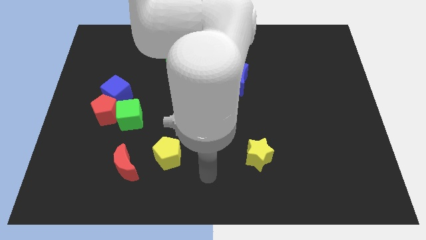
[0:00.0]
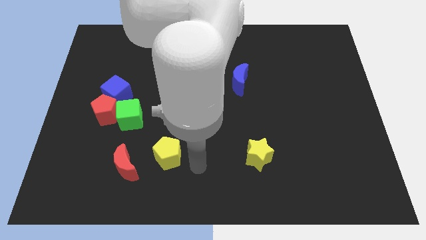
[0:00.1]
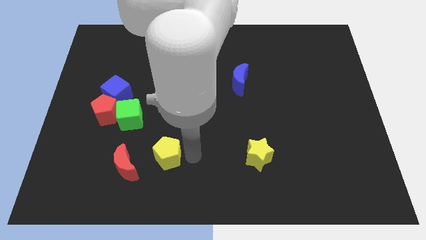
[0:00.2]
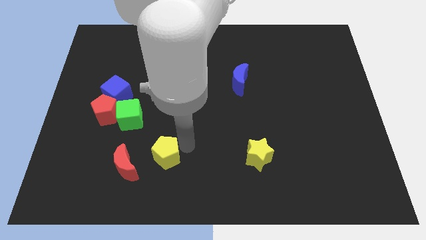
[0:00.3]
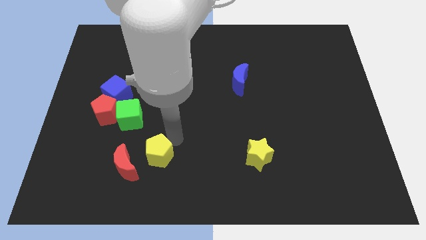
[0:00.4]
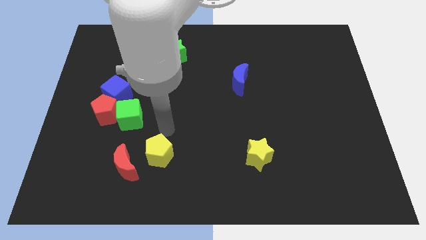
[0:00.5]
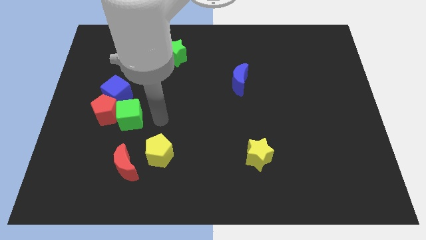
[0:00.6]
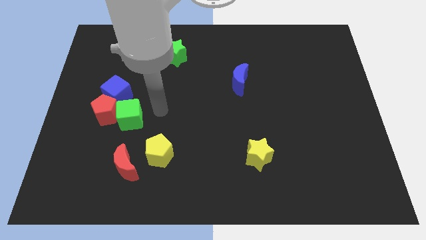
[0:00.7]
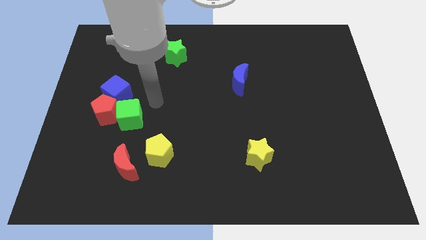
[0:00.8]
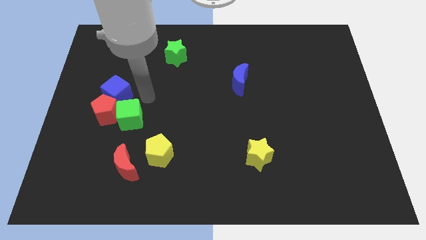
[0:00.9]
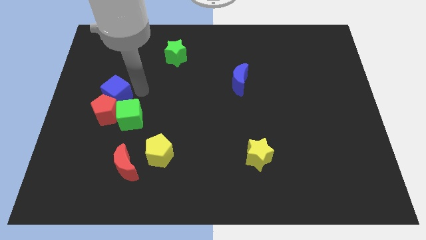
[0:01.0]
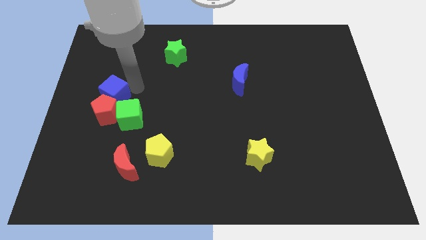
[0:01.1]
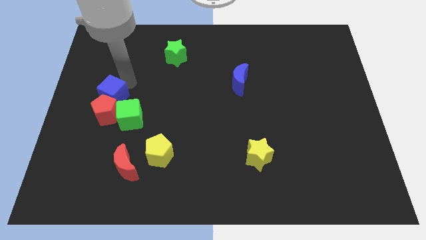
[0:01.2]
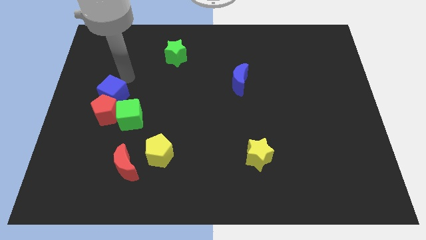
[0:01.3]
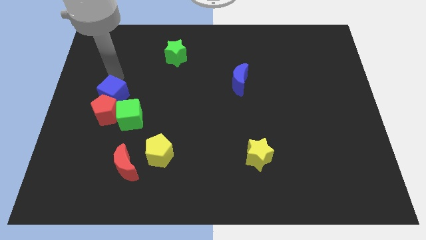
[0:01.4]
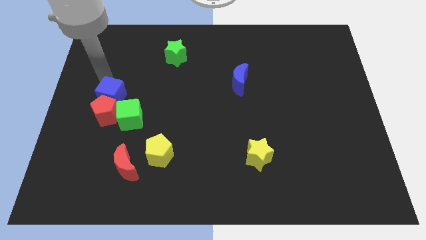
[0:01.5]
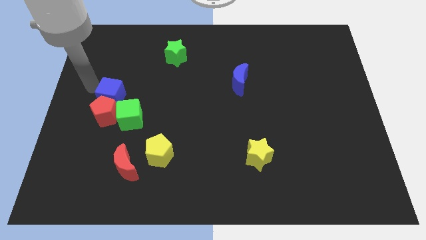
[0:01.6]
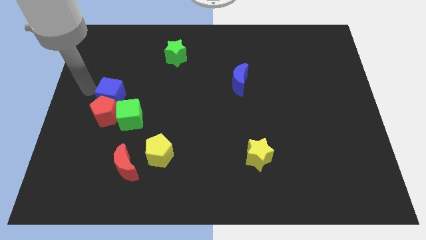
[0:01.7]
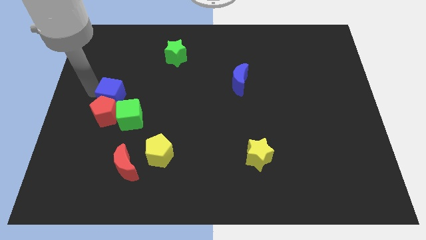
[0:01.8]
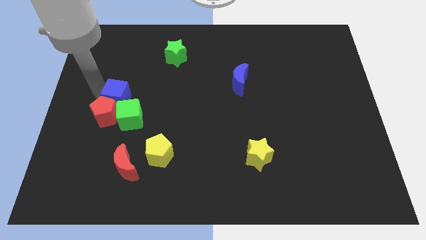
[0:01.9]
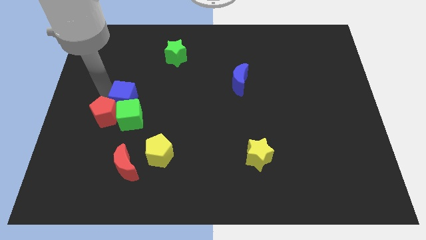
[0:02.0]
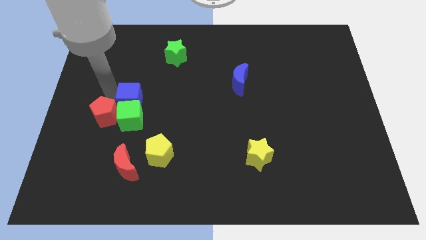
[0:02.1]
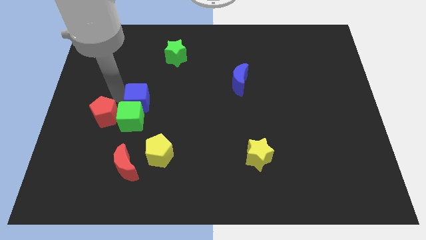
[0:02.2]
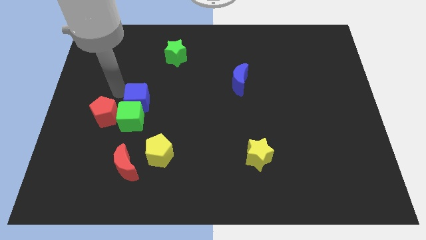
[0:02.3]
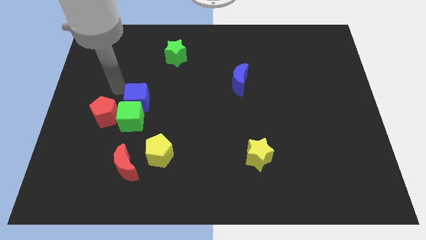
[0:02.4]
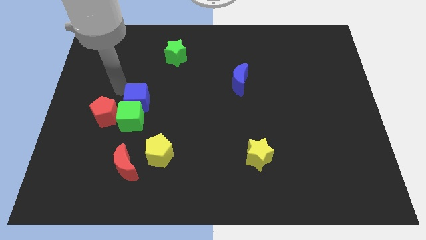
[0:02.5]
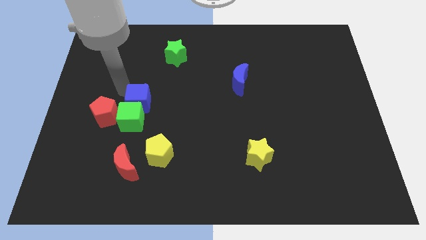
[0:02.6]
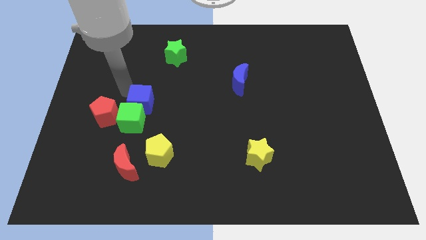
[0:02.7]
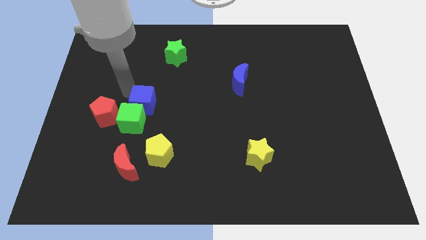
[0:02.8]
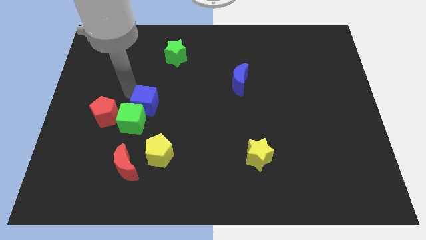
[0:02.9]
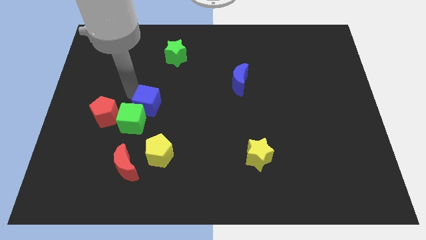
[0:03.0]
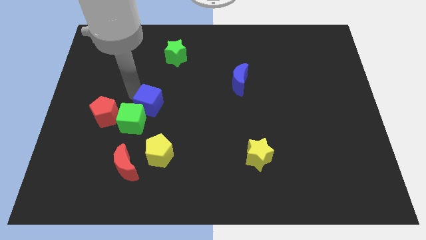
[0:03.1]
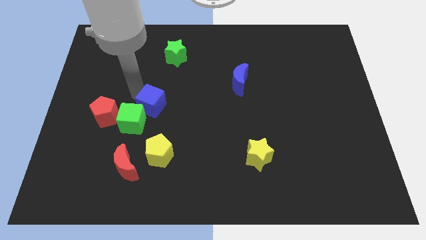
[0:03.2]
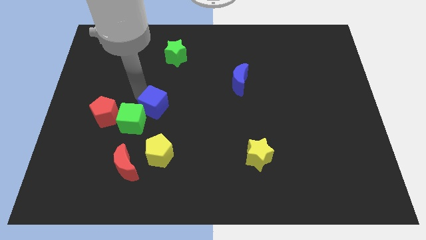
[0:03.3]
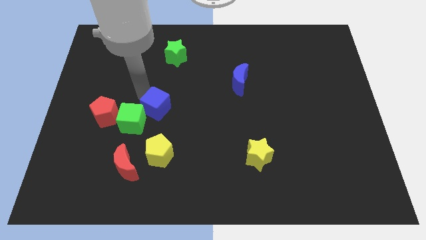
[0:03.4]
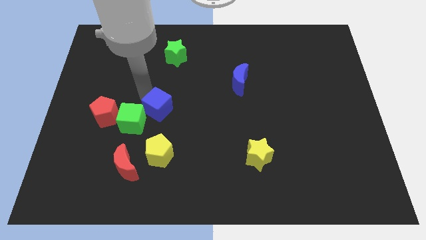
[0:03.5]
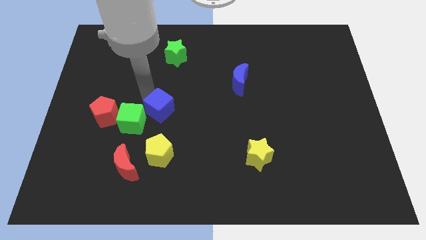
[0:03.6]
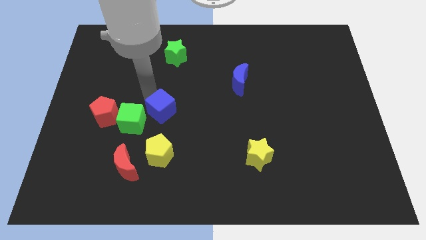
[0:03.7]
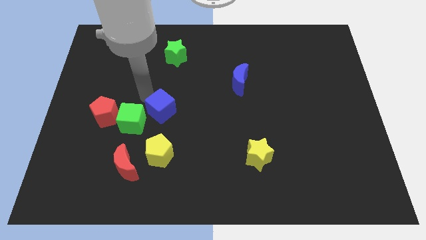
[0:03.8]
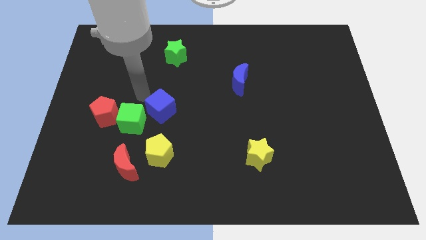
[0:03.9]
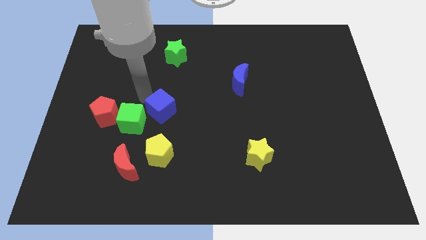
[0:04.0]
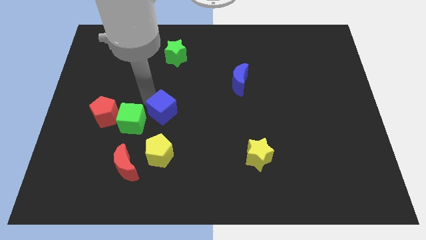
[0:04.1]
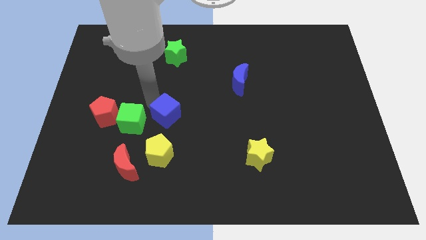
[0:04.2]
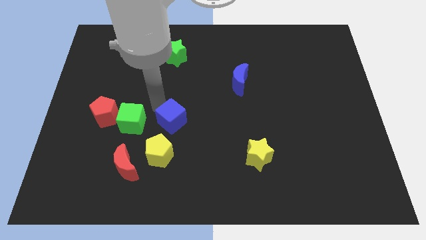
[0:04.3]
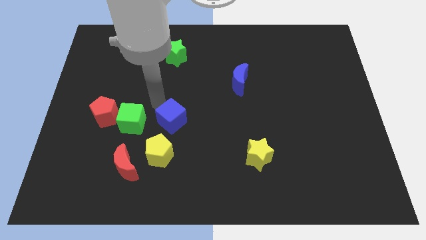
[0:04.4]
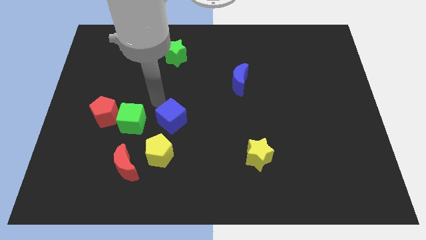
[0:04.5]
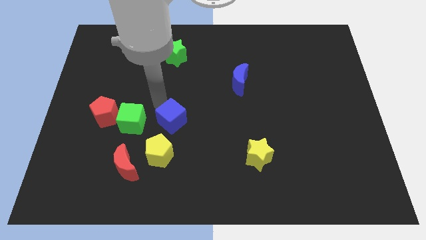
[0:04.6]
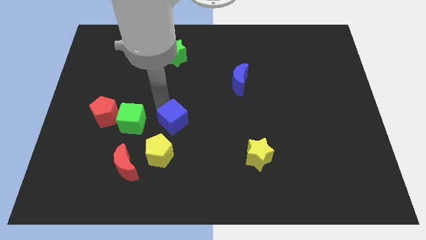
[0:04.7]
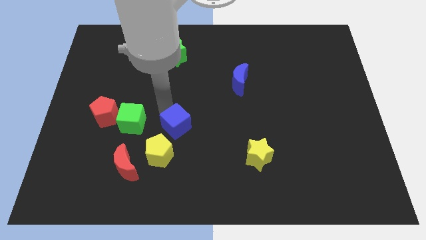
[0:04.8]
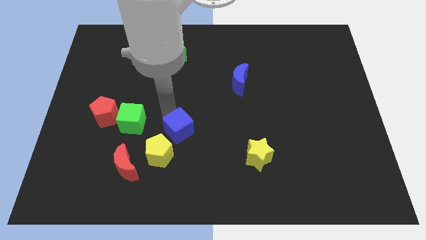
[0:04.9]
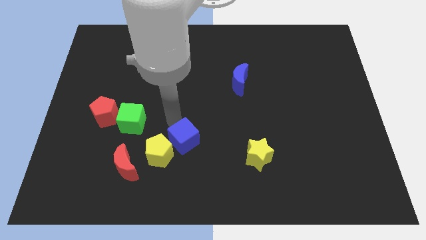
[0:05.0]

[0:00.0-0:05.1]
slide the blue cube down and then to the right

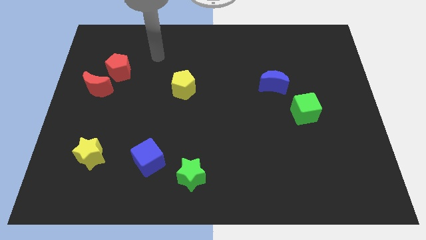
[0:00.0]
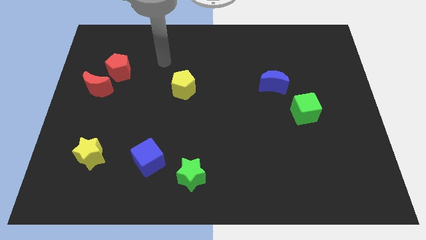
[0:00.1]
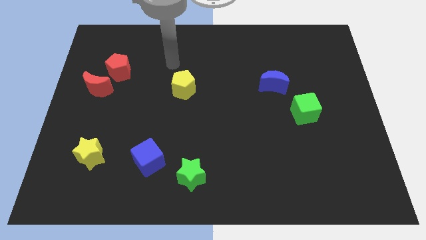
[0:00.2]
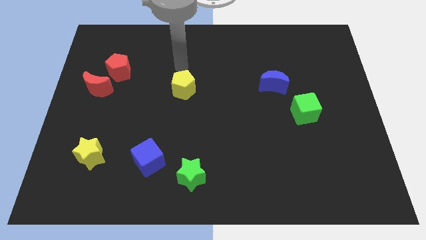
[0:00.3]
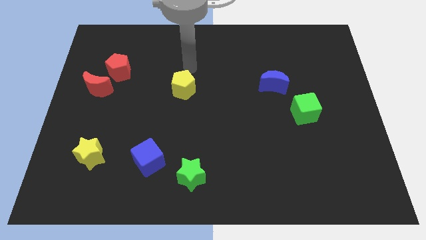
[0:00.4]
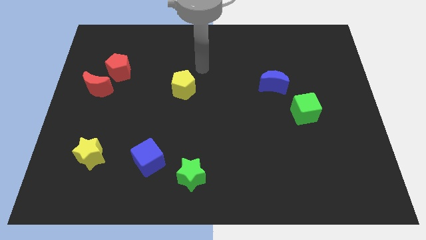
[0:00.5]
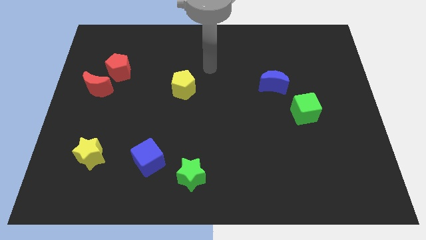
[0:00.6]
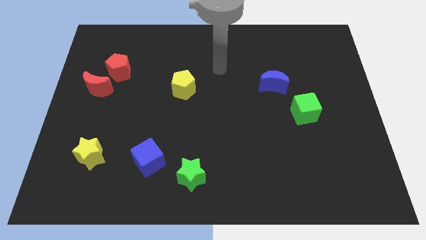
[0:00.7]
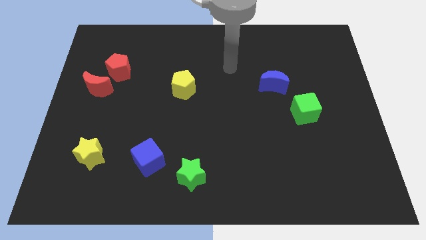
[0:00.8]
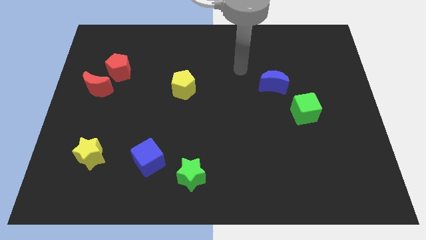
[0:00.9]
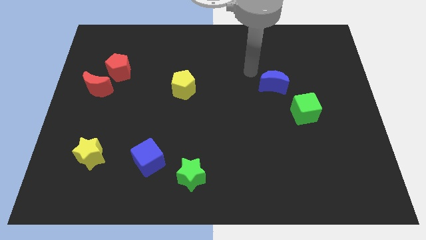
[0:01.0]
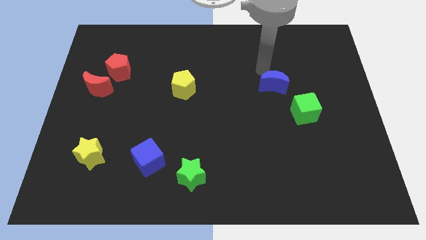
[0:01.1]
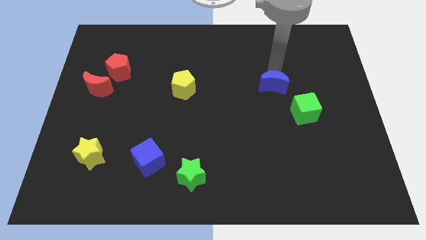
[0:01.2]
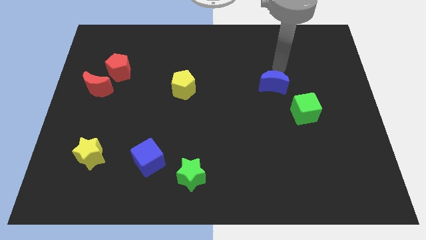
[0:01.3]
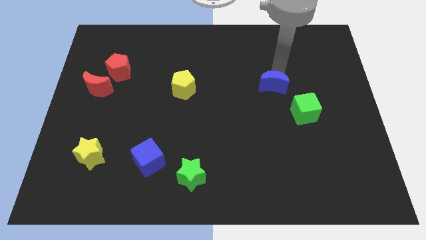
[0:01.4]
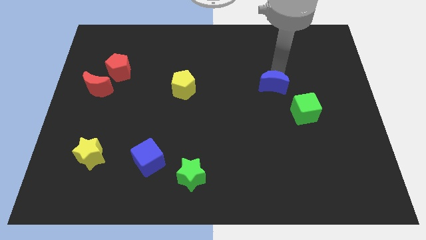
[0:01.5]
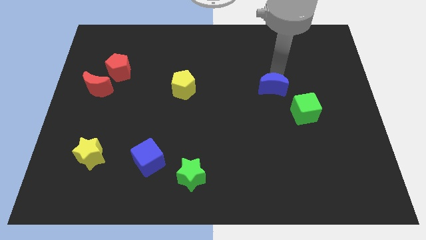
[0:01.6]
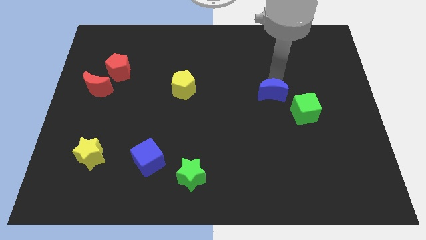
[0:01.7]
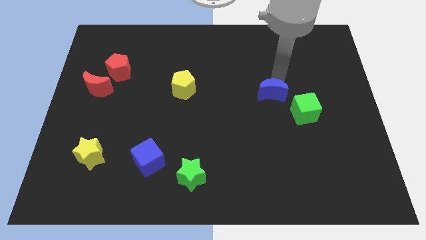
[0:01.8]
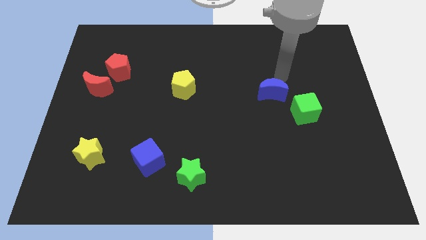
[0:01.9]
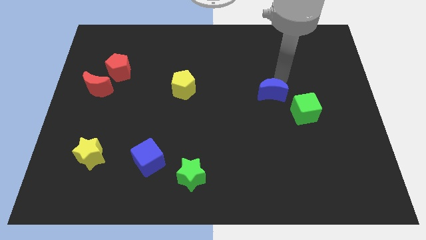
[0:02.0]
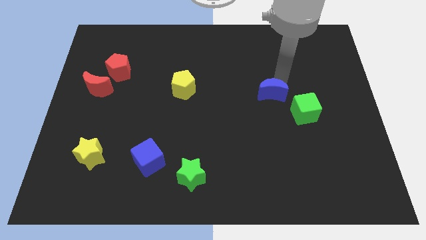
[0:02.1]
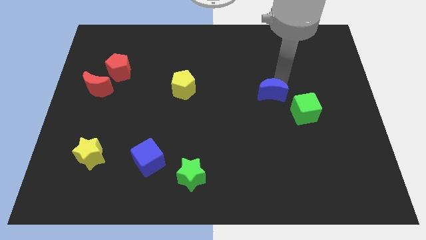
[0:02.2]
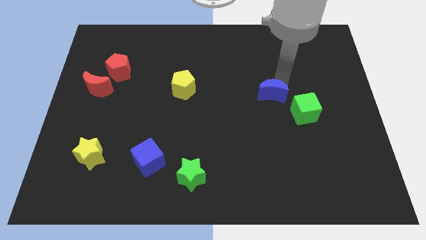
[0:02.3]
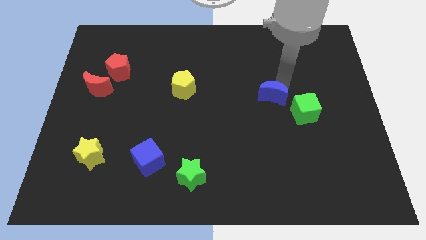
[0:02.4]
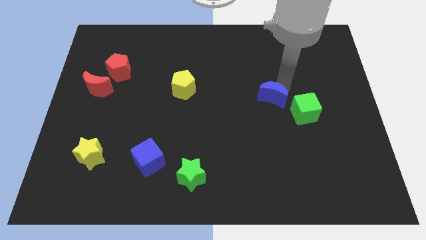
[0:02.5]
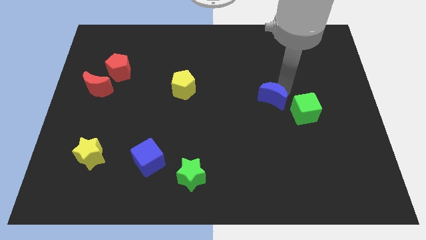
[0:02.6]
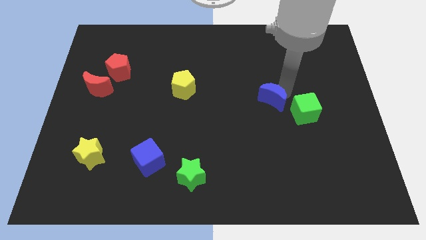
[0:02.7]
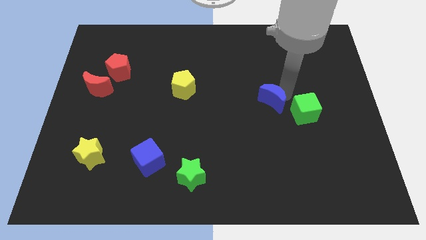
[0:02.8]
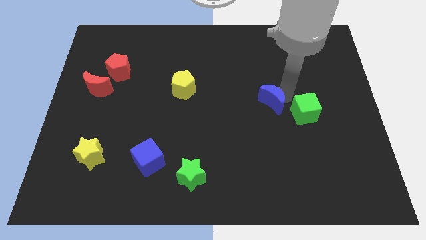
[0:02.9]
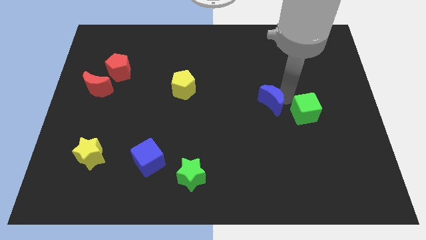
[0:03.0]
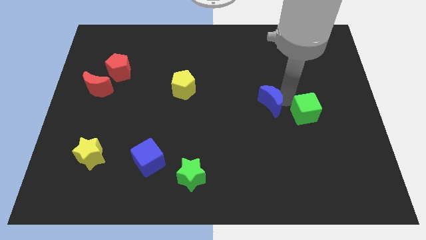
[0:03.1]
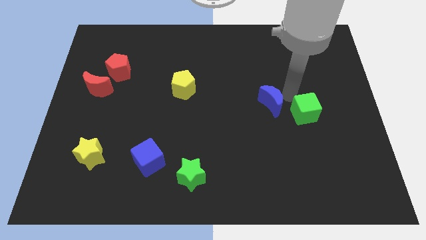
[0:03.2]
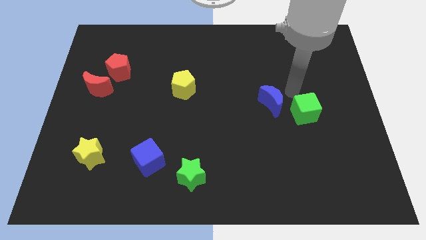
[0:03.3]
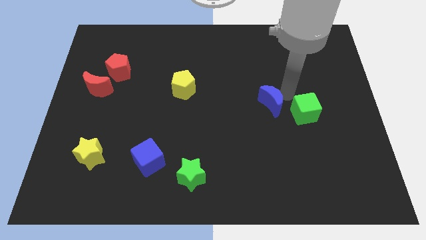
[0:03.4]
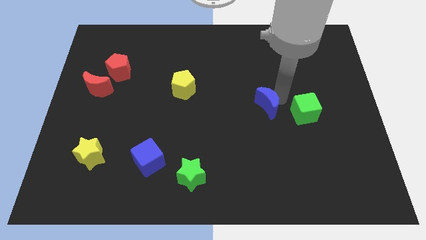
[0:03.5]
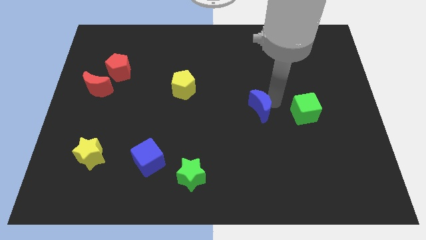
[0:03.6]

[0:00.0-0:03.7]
slightly push the blue moon diagonally down and to the left
